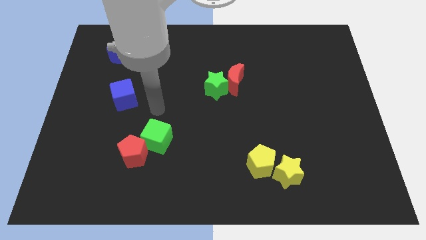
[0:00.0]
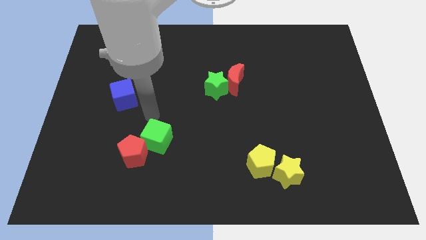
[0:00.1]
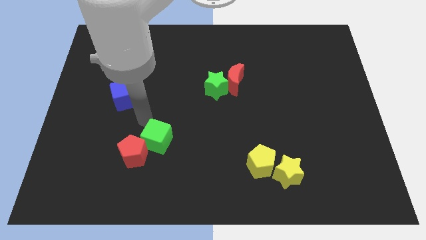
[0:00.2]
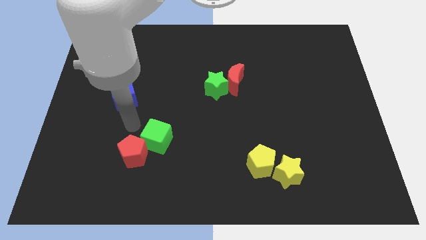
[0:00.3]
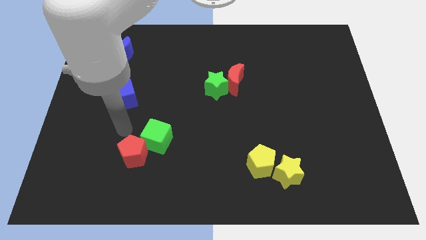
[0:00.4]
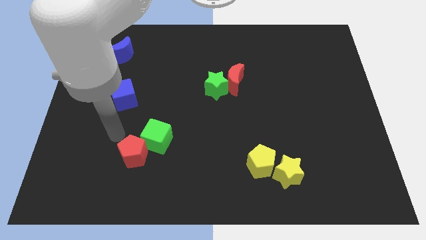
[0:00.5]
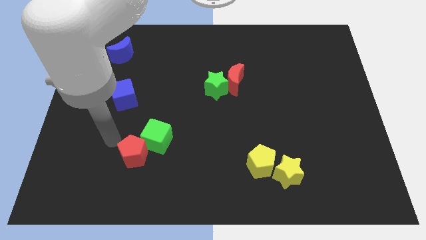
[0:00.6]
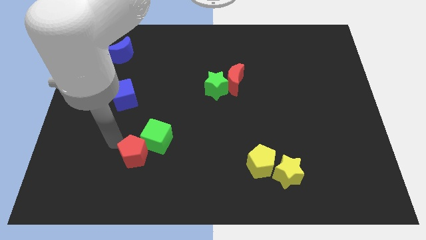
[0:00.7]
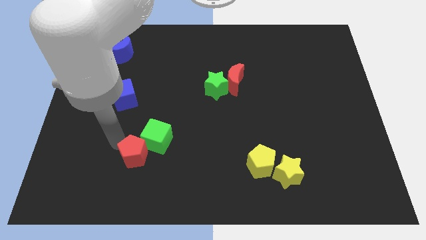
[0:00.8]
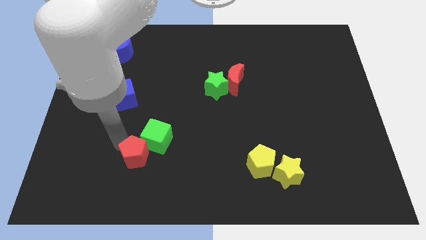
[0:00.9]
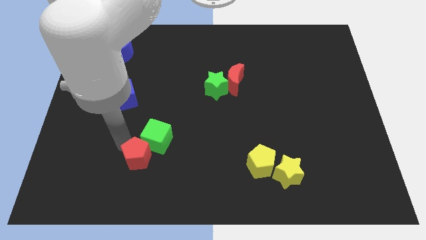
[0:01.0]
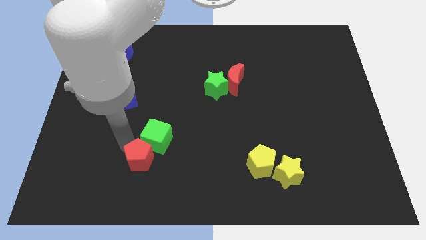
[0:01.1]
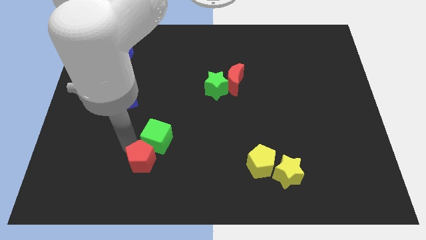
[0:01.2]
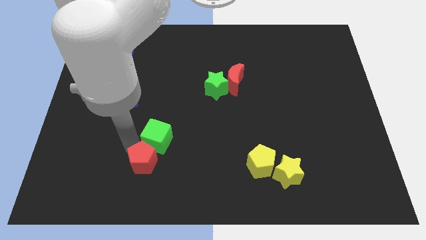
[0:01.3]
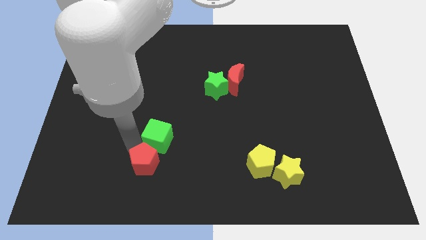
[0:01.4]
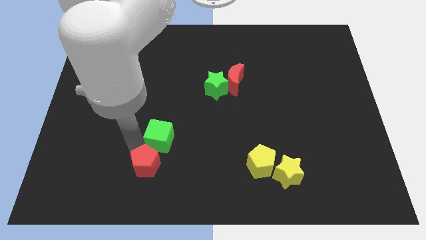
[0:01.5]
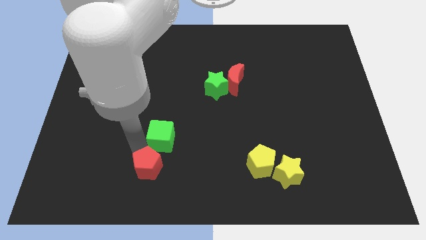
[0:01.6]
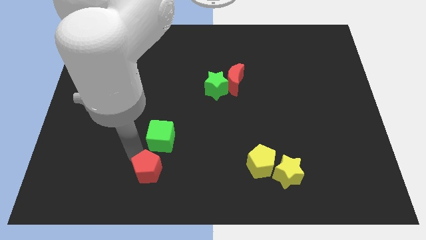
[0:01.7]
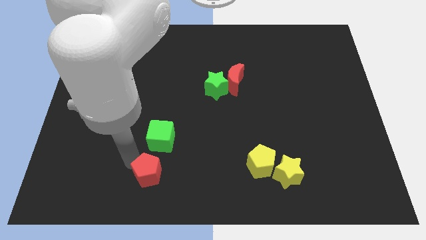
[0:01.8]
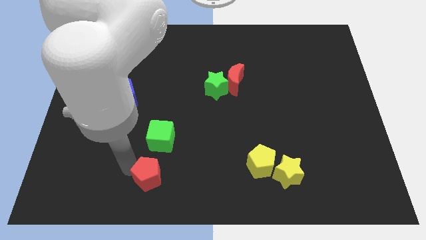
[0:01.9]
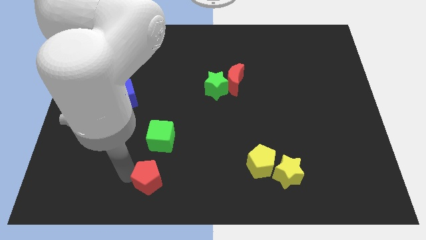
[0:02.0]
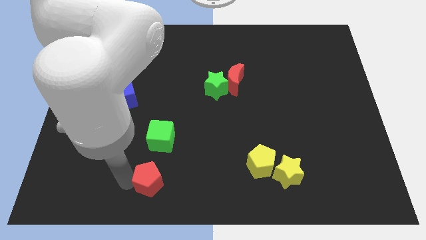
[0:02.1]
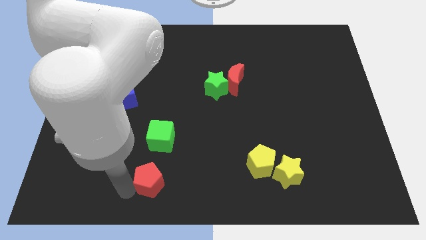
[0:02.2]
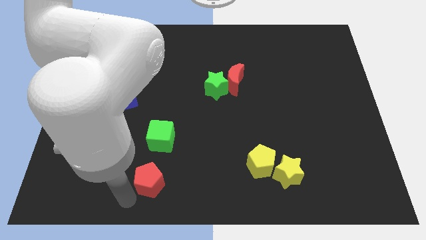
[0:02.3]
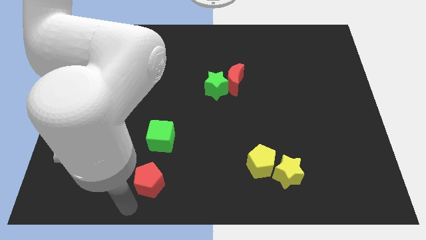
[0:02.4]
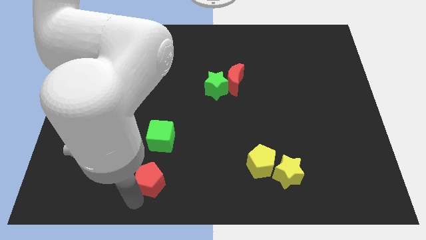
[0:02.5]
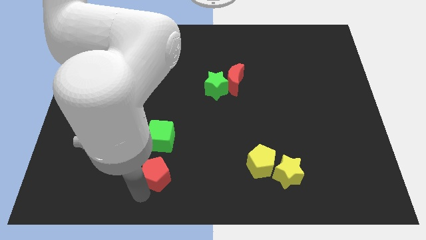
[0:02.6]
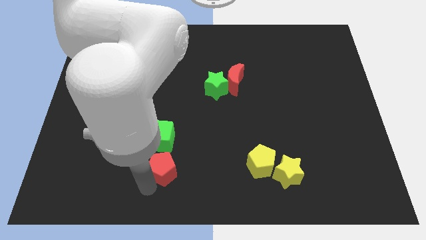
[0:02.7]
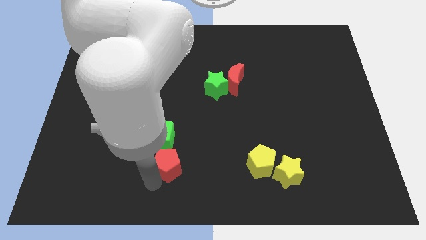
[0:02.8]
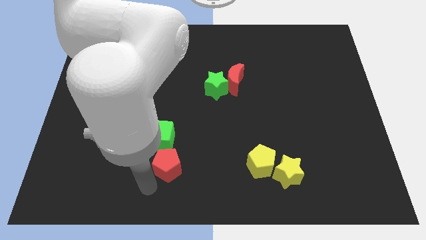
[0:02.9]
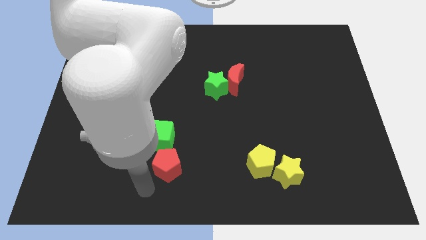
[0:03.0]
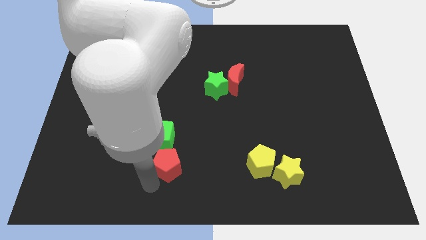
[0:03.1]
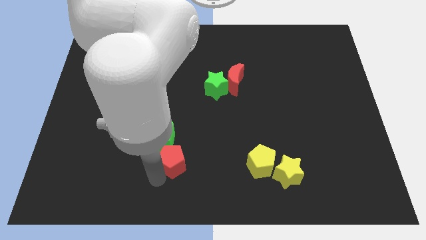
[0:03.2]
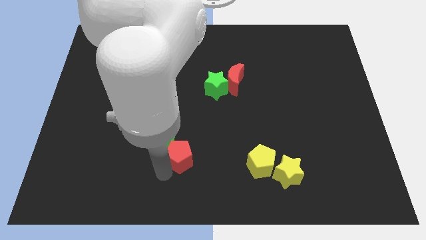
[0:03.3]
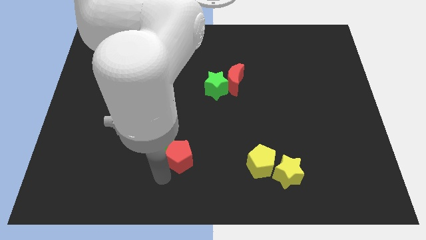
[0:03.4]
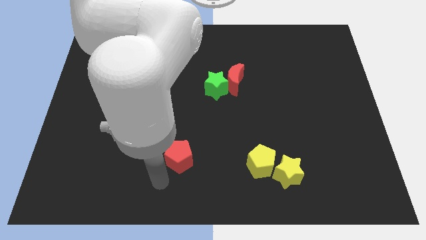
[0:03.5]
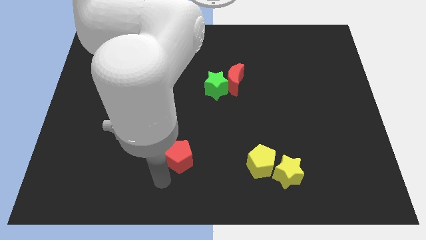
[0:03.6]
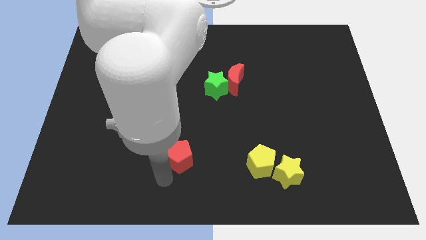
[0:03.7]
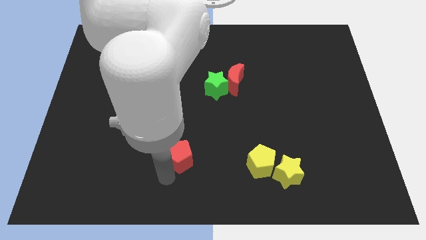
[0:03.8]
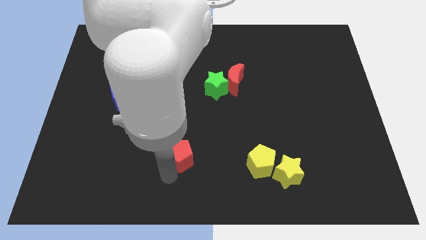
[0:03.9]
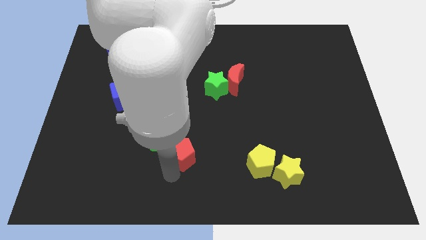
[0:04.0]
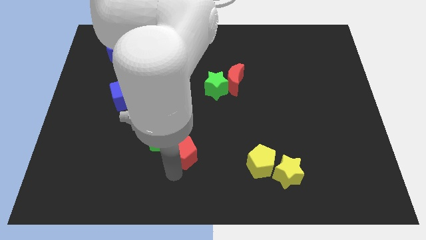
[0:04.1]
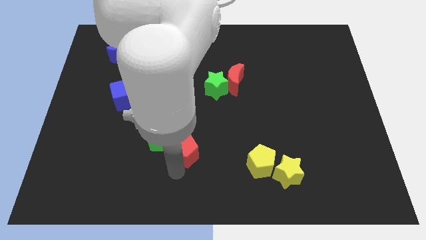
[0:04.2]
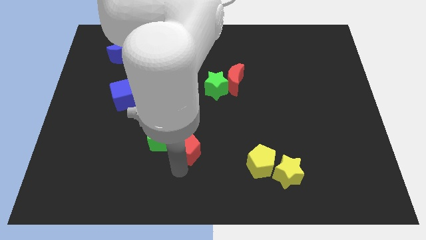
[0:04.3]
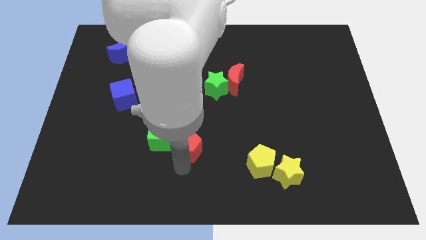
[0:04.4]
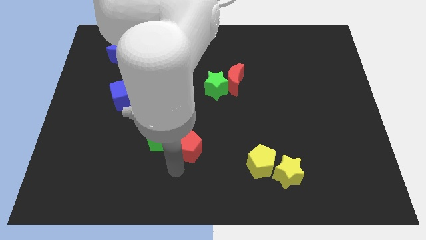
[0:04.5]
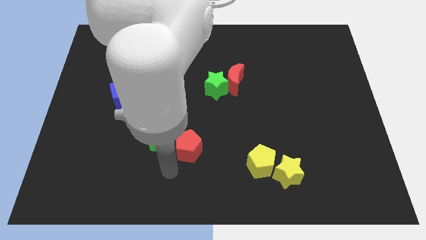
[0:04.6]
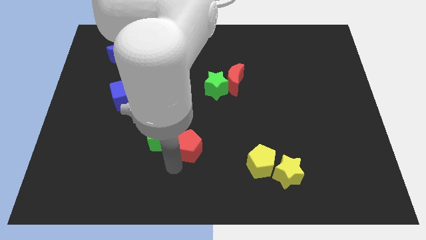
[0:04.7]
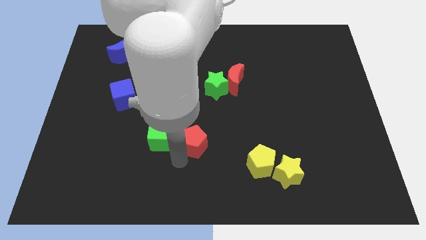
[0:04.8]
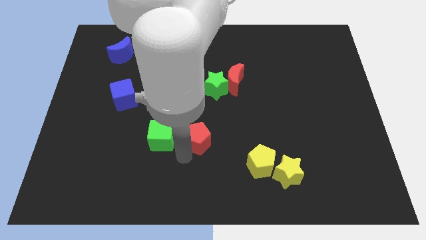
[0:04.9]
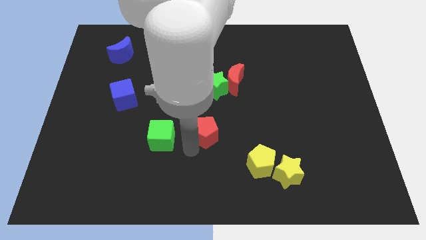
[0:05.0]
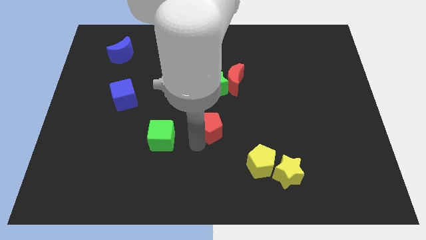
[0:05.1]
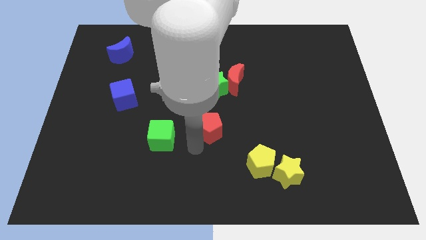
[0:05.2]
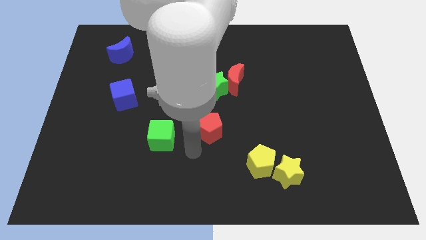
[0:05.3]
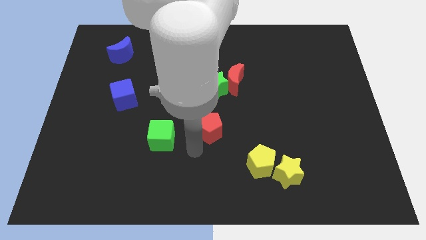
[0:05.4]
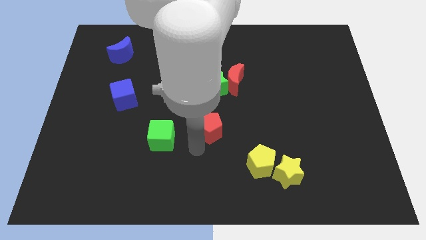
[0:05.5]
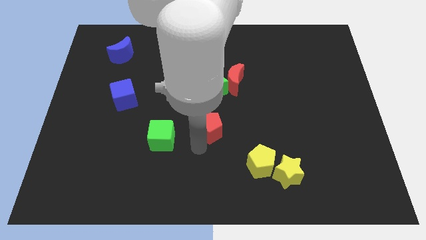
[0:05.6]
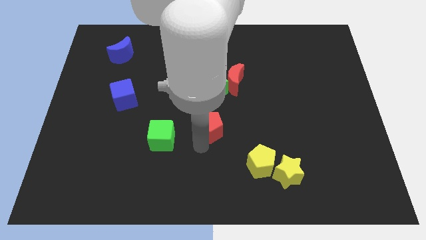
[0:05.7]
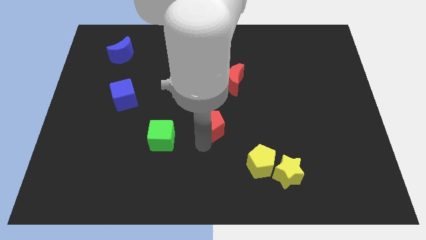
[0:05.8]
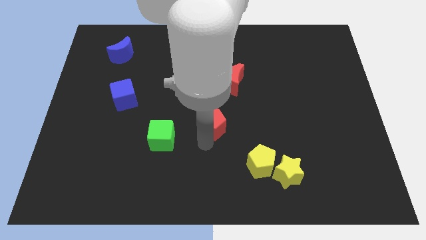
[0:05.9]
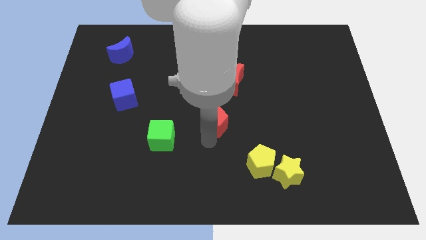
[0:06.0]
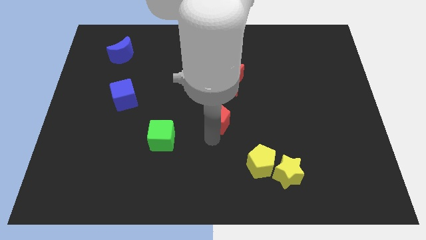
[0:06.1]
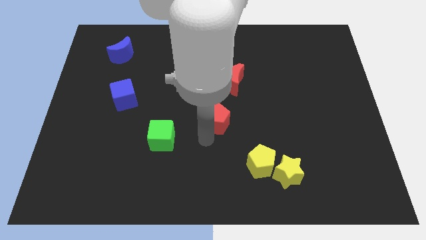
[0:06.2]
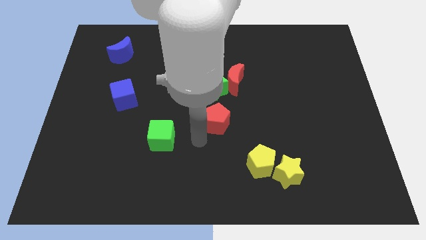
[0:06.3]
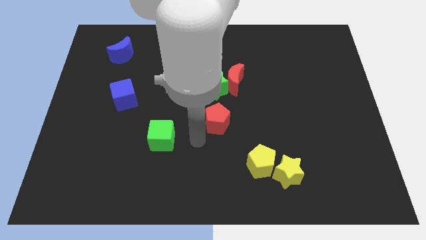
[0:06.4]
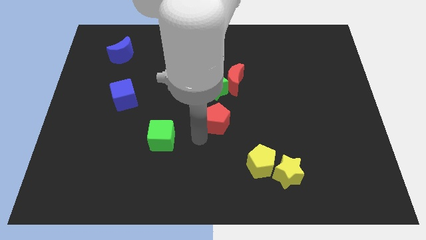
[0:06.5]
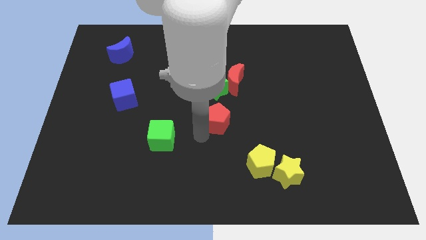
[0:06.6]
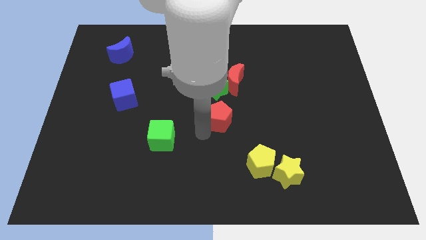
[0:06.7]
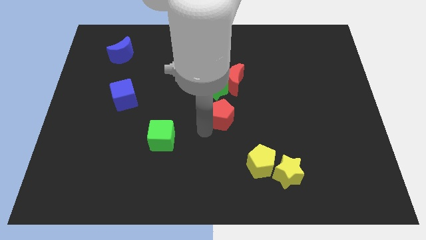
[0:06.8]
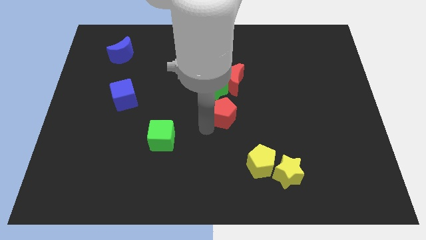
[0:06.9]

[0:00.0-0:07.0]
put the red pentagon to the bottom right of the green star
